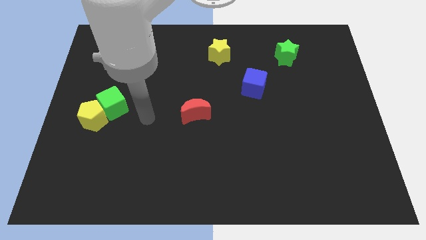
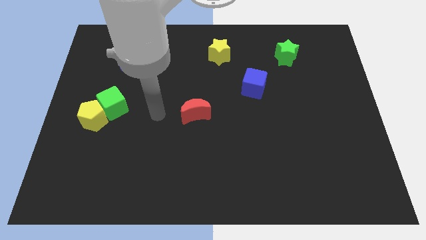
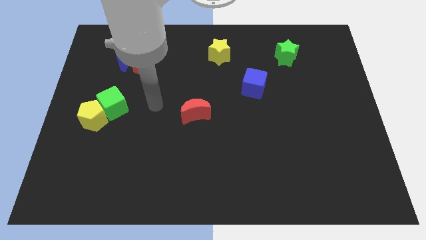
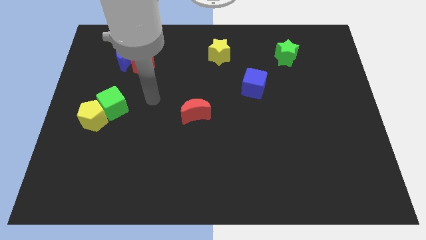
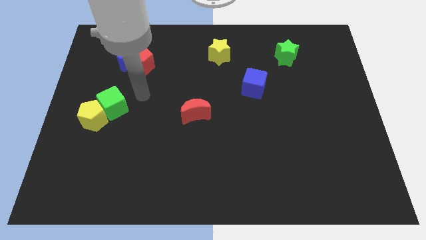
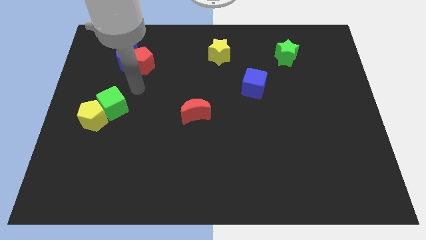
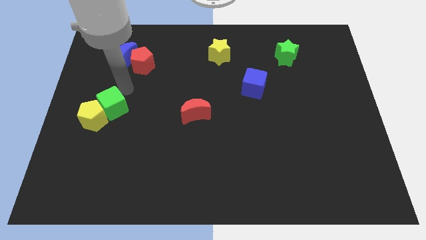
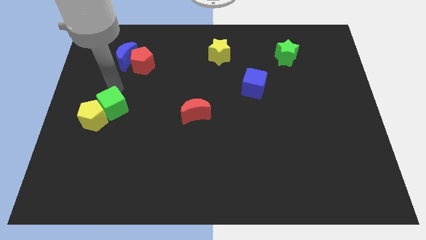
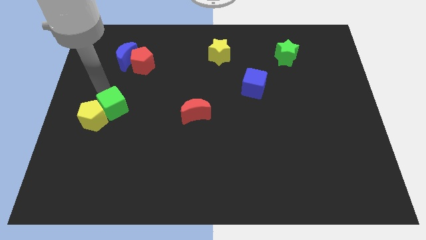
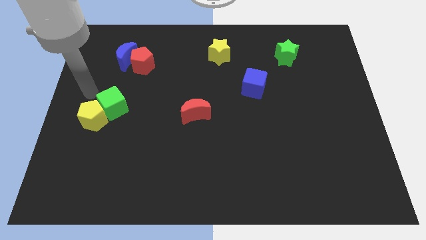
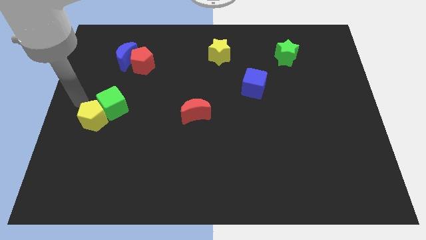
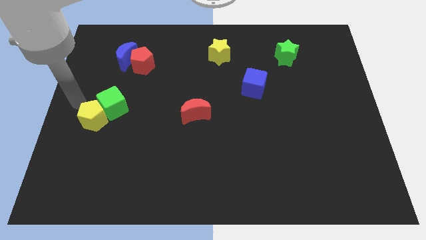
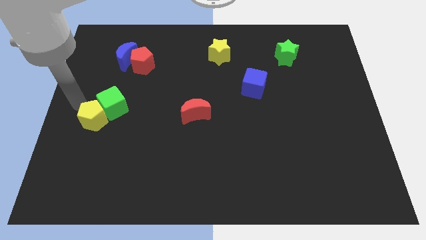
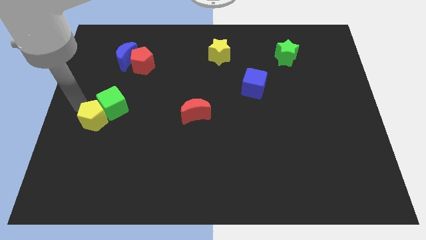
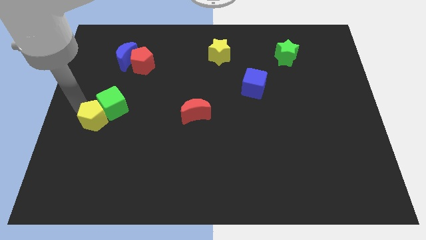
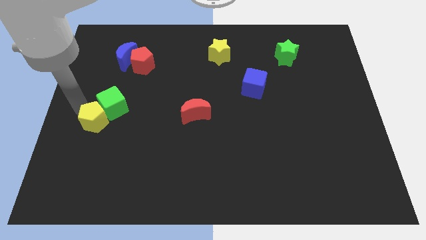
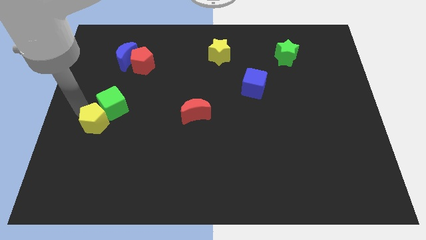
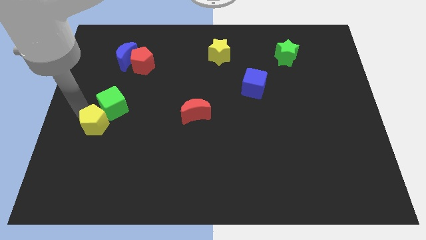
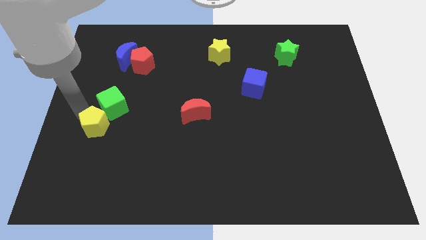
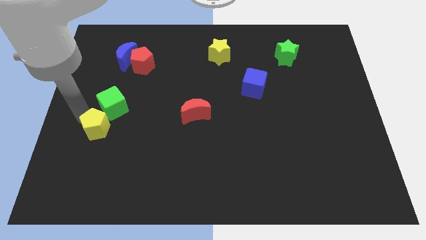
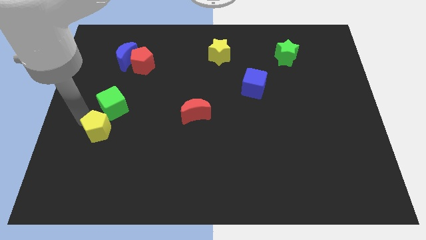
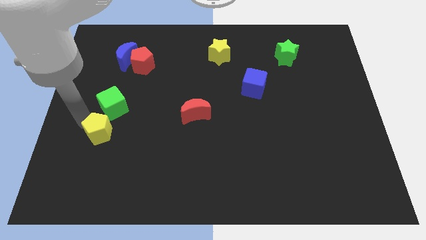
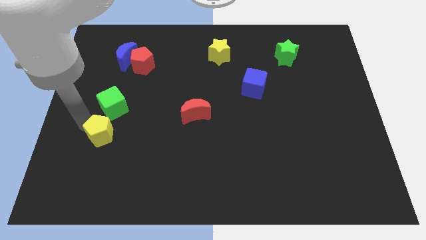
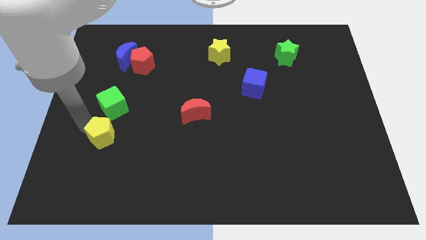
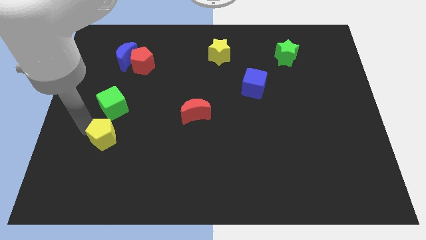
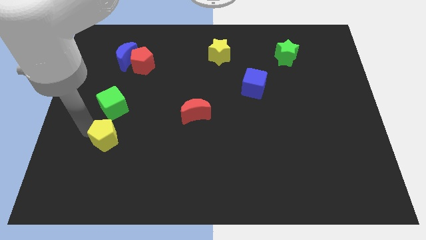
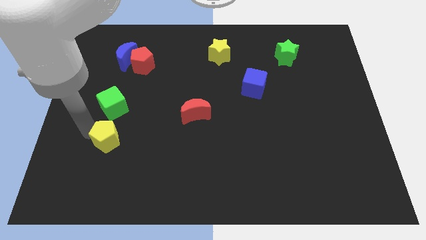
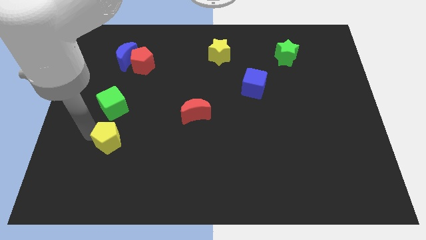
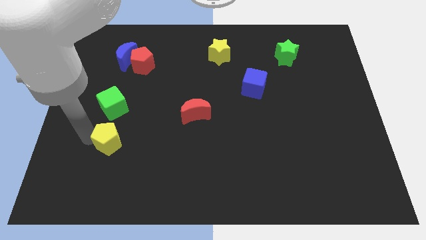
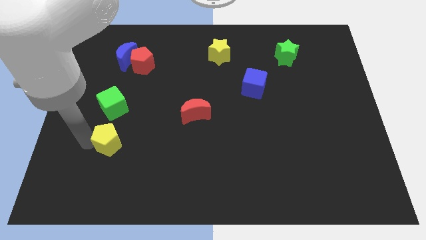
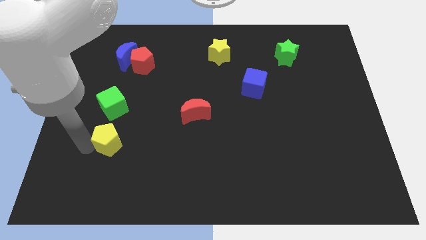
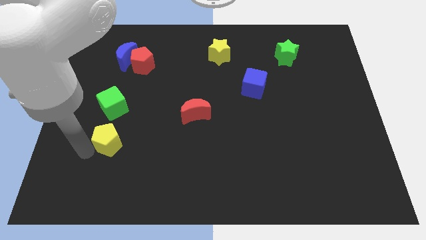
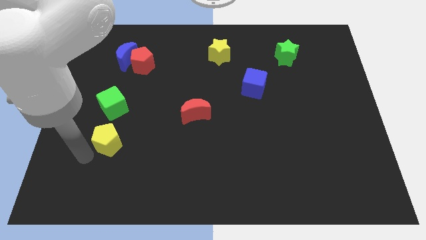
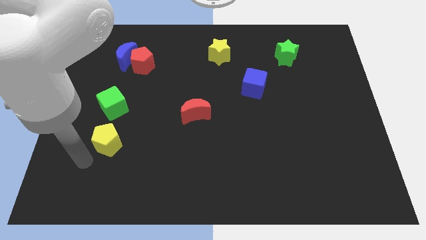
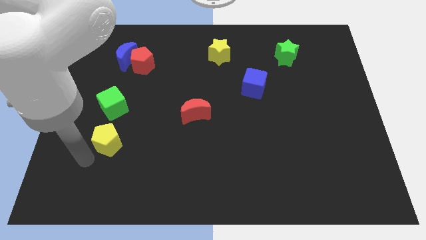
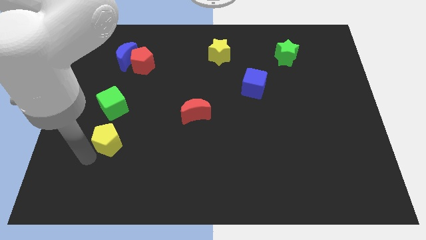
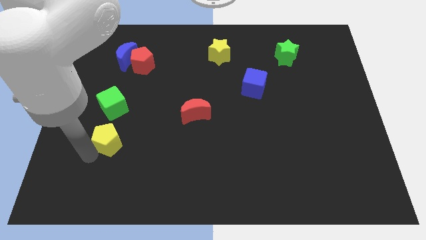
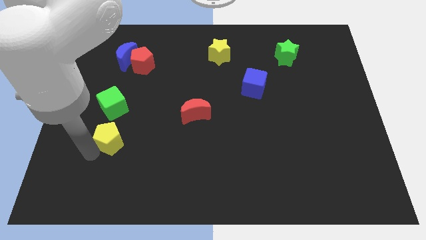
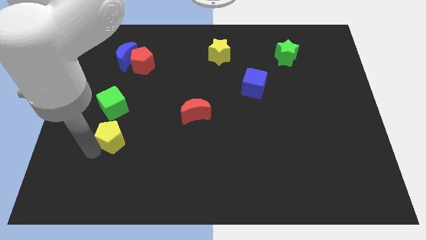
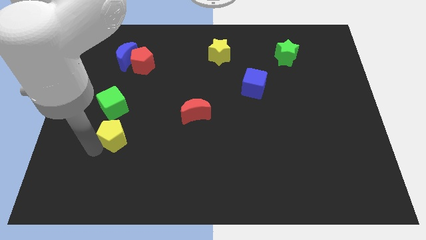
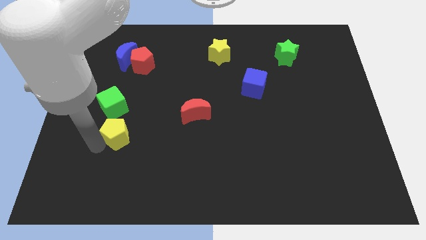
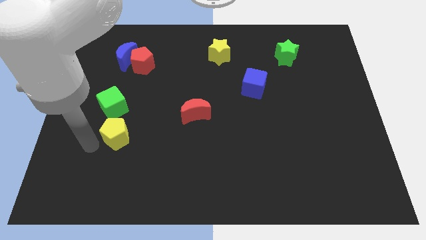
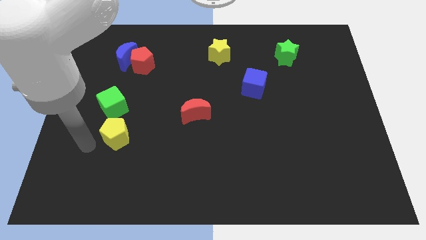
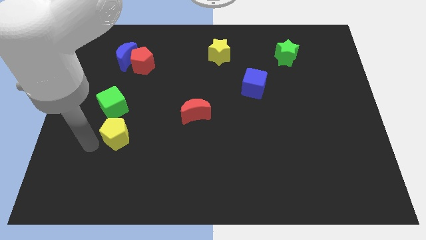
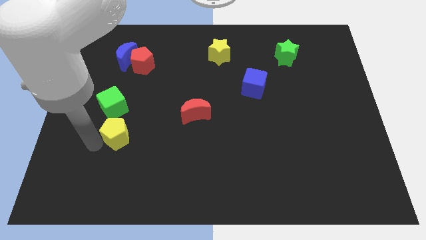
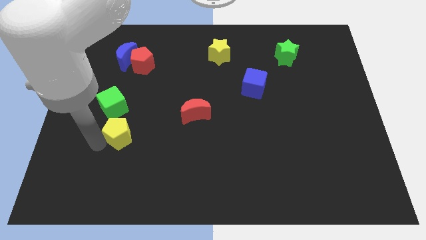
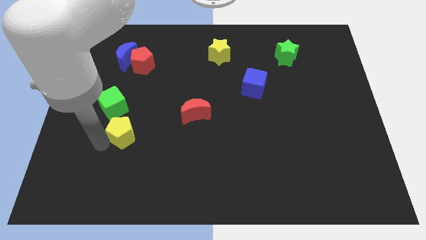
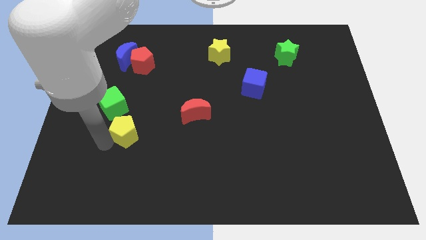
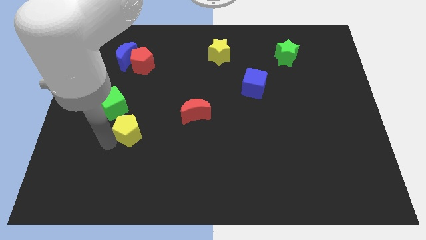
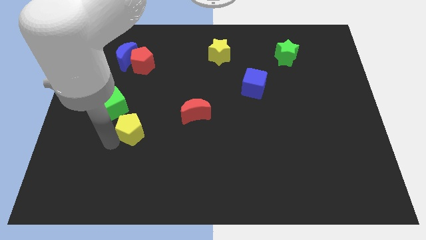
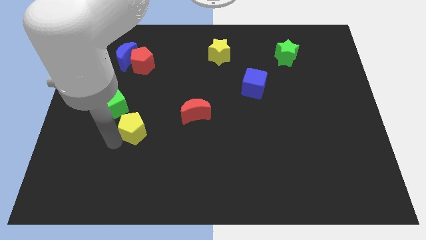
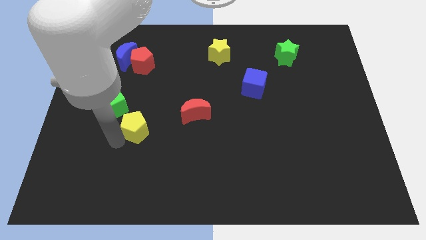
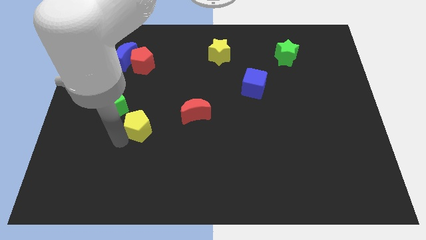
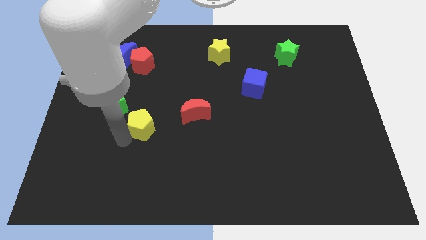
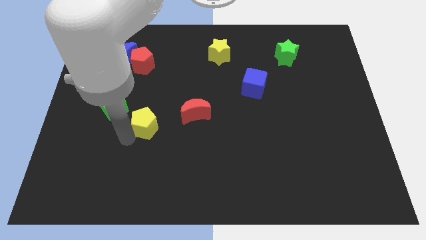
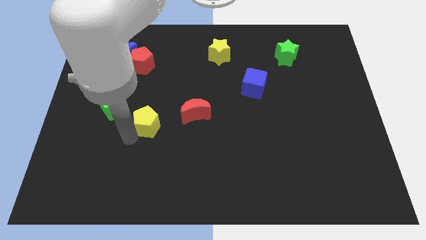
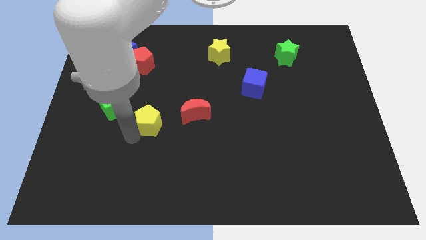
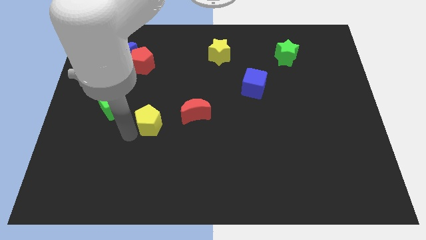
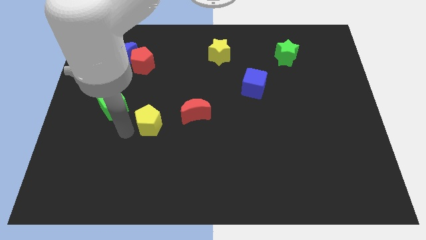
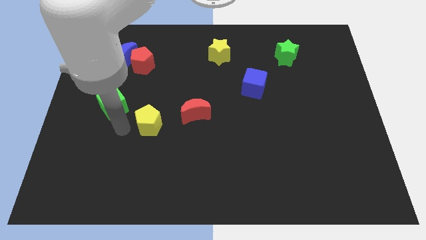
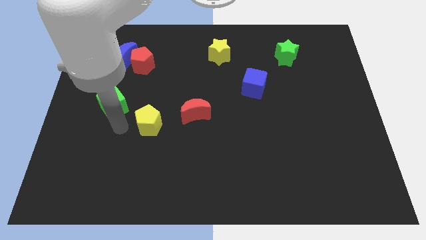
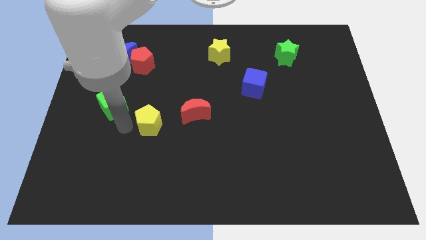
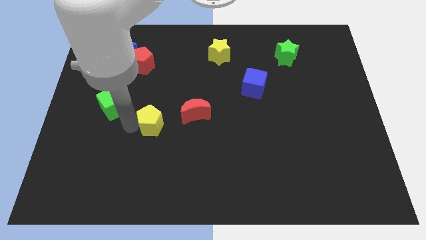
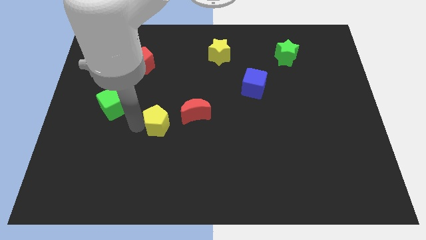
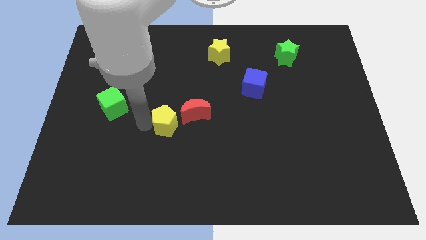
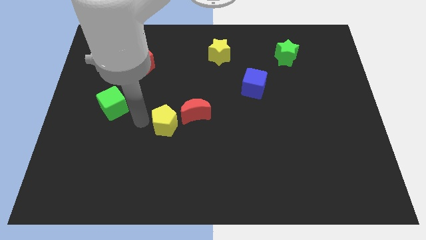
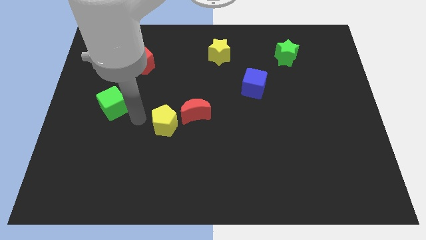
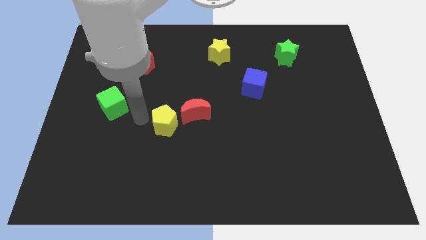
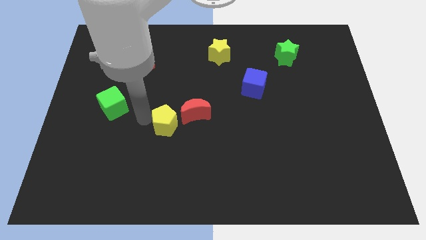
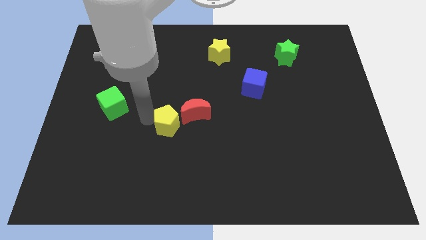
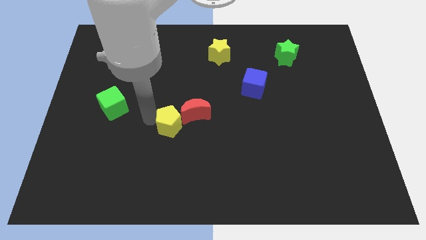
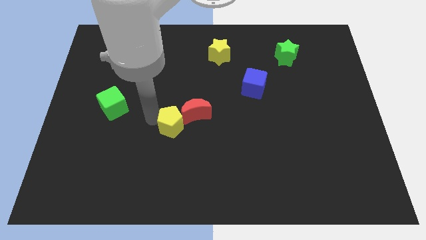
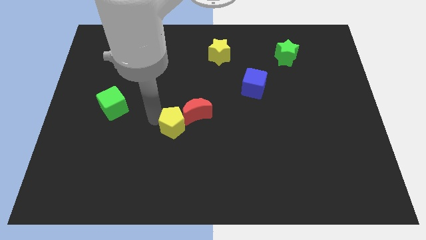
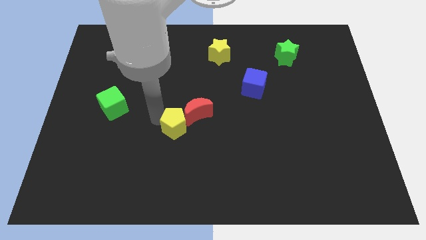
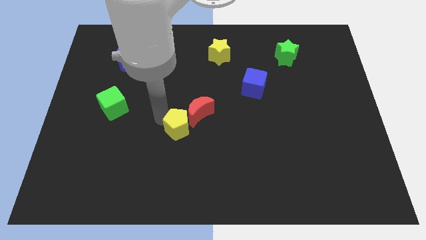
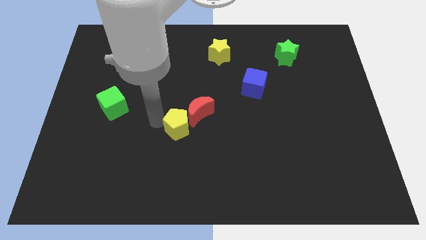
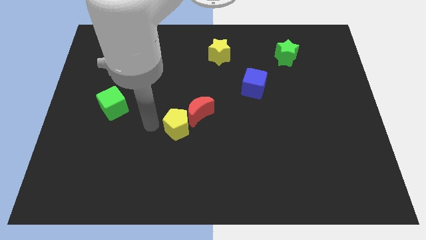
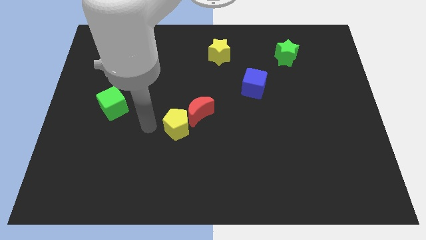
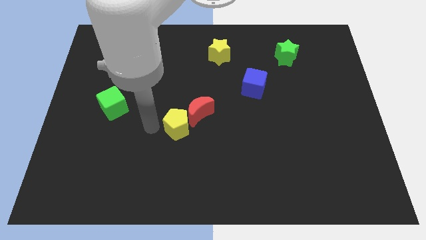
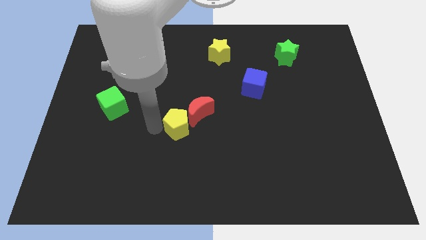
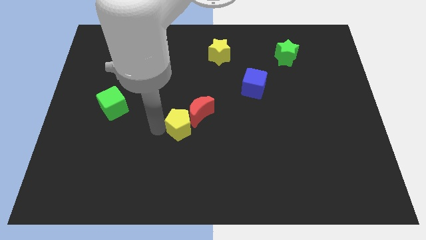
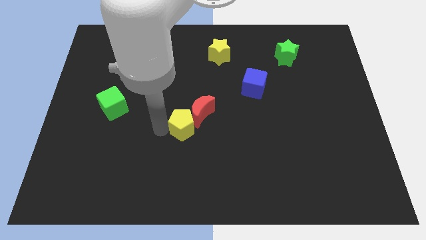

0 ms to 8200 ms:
move the yellow pentagon to the right
